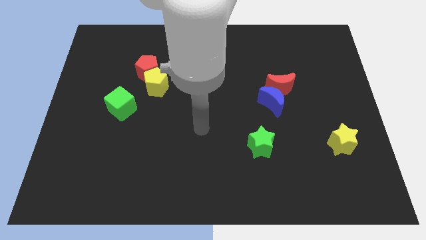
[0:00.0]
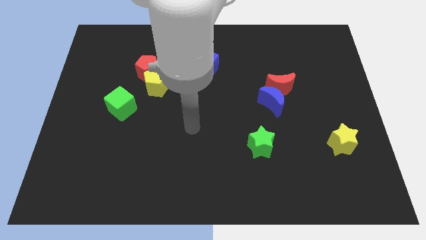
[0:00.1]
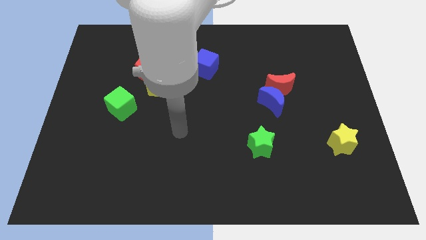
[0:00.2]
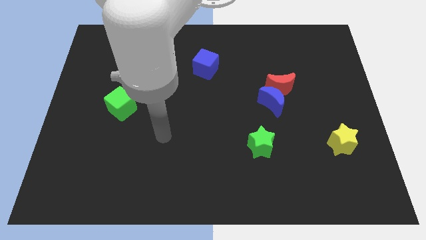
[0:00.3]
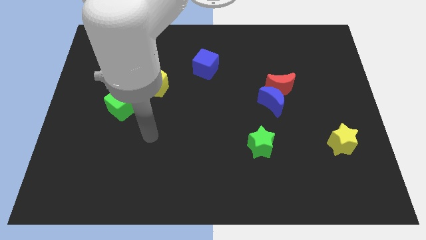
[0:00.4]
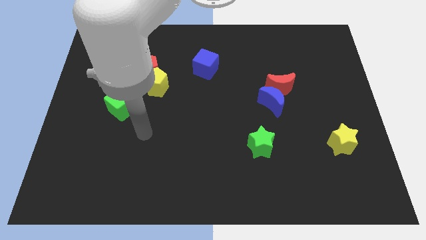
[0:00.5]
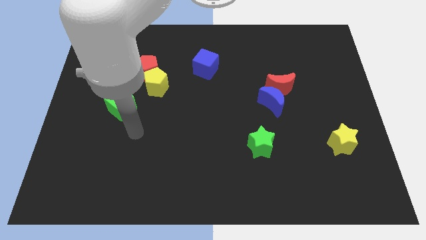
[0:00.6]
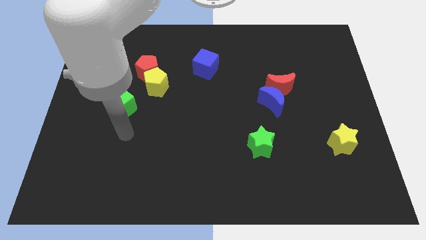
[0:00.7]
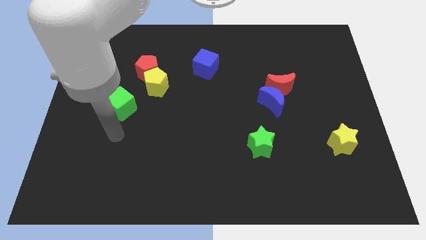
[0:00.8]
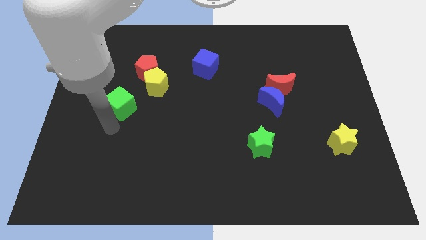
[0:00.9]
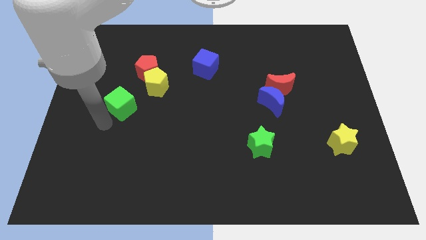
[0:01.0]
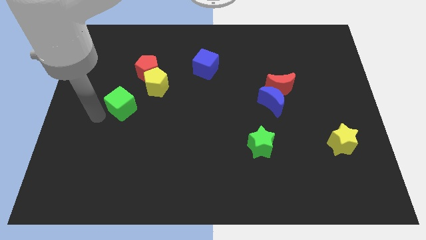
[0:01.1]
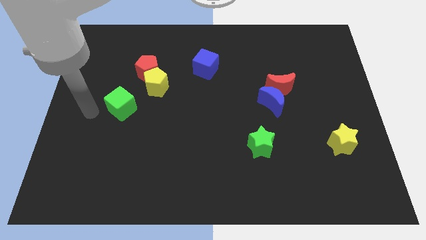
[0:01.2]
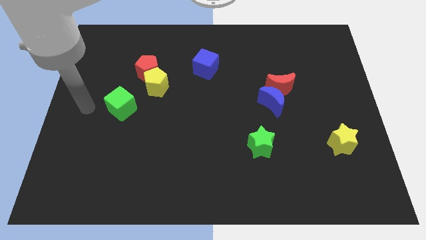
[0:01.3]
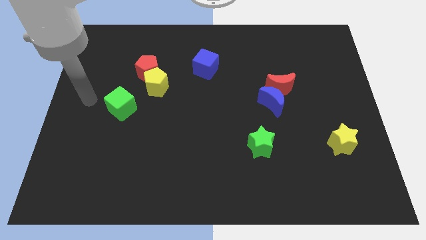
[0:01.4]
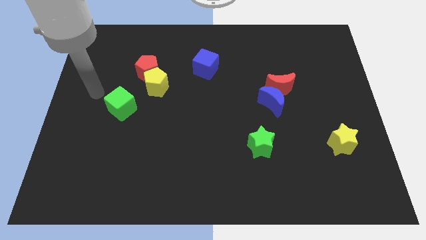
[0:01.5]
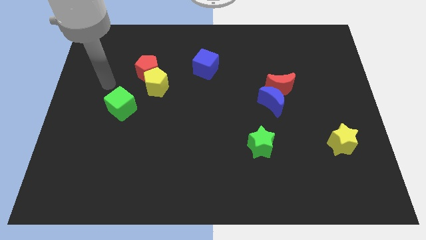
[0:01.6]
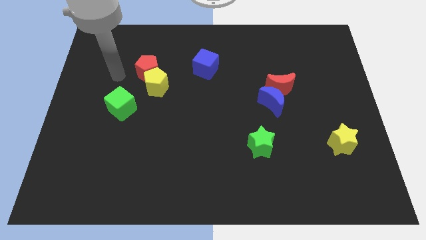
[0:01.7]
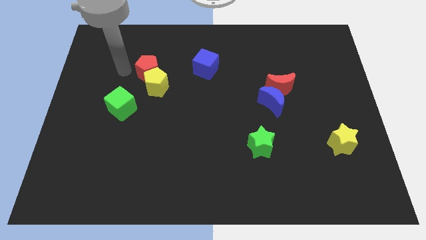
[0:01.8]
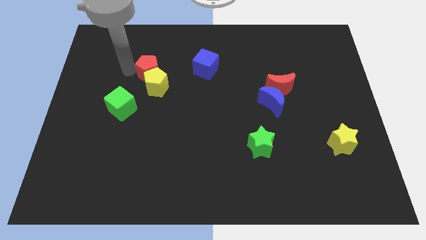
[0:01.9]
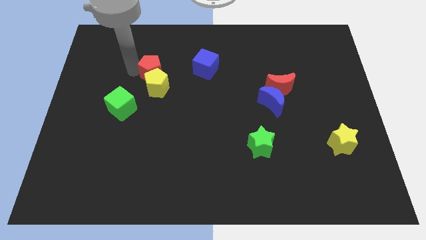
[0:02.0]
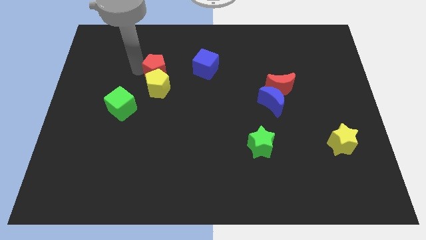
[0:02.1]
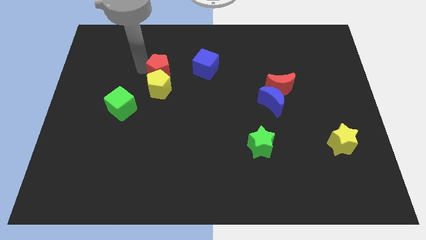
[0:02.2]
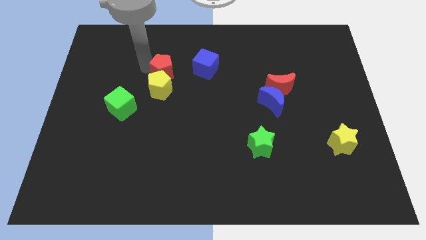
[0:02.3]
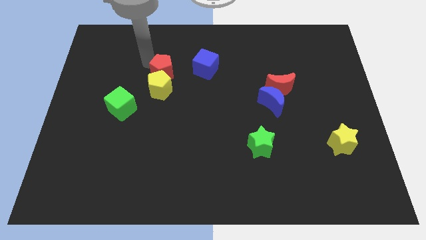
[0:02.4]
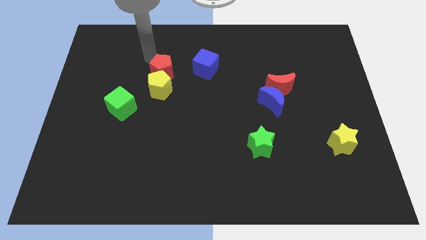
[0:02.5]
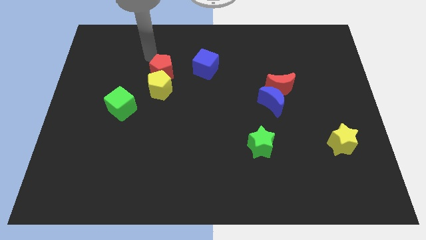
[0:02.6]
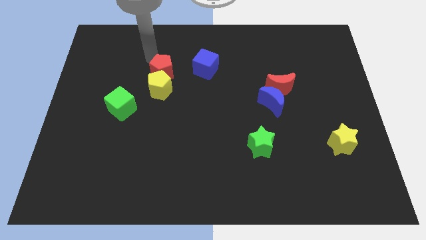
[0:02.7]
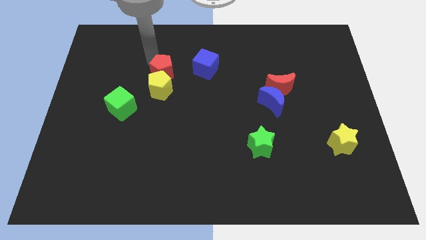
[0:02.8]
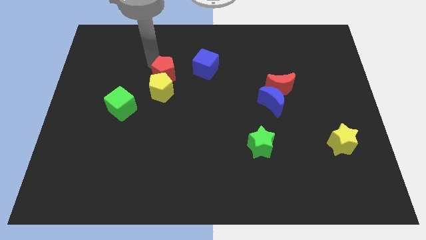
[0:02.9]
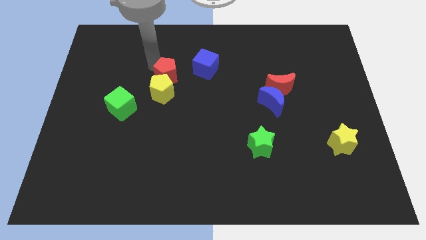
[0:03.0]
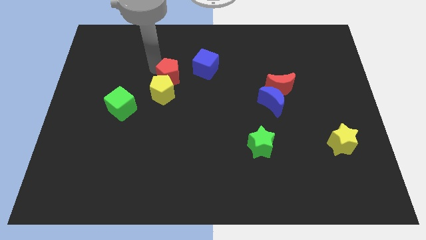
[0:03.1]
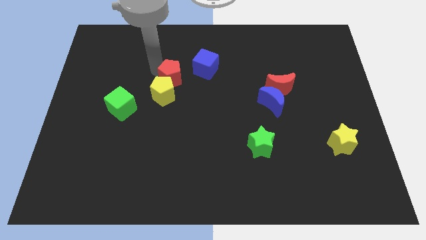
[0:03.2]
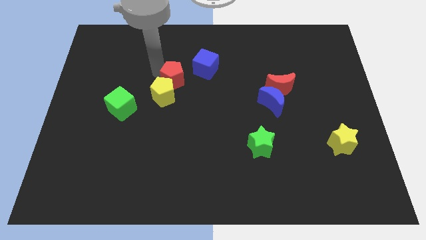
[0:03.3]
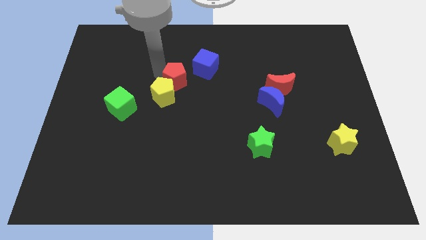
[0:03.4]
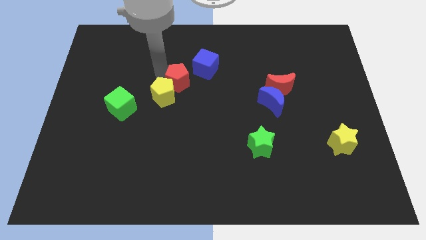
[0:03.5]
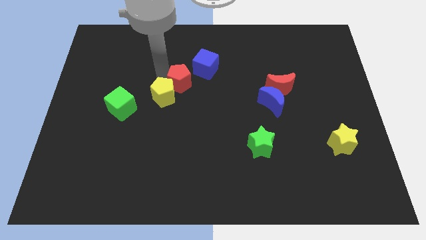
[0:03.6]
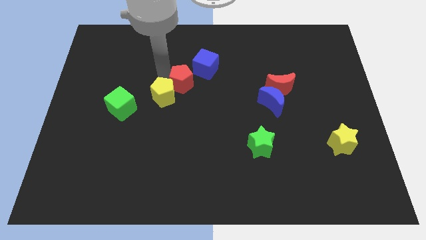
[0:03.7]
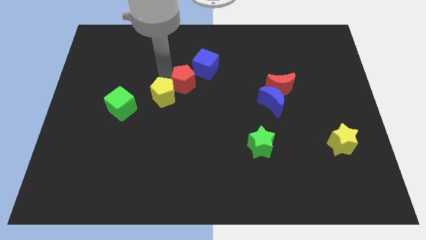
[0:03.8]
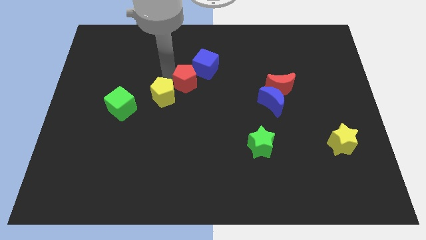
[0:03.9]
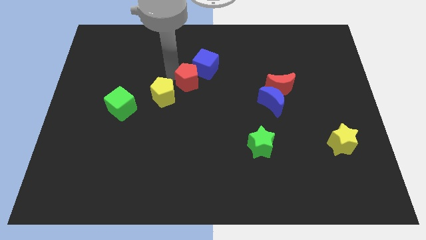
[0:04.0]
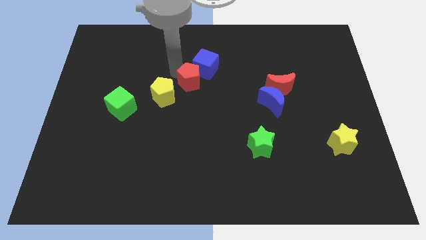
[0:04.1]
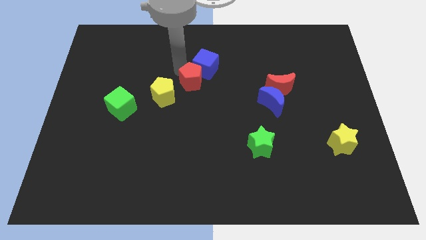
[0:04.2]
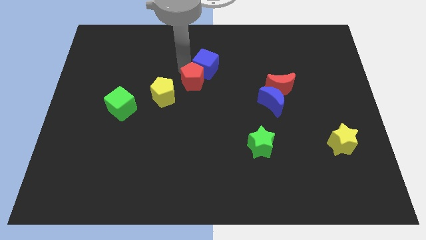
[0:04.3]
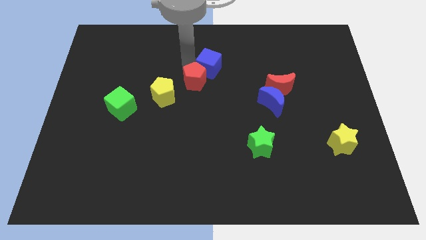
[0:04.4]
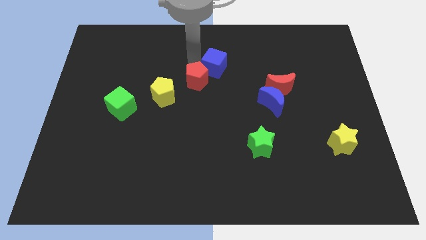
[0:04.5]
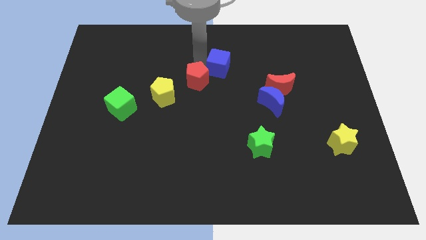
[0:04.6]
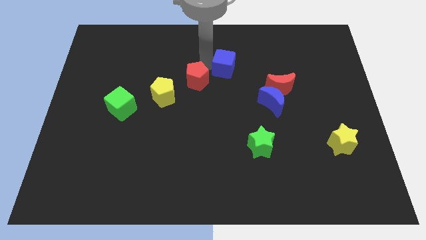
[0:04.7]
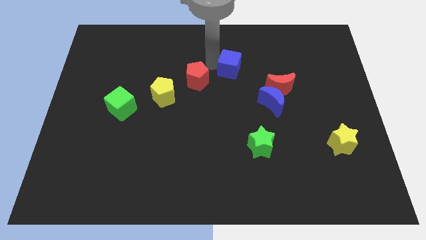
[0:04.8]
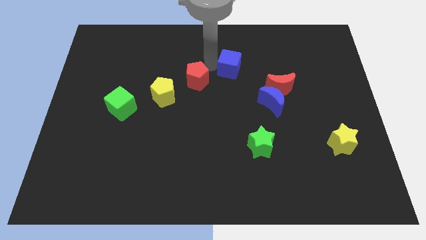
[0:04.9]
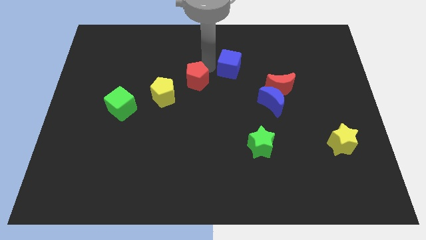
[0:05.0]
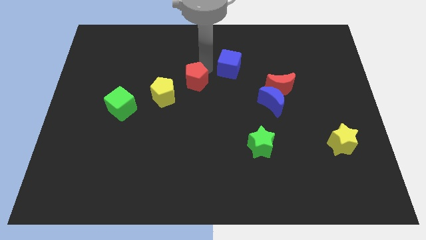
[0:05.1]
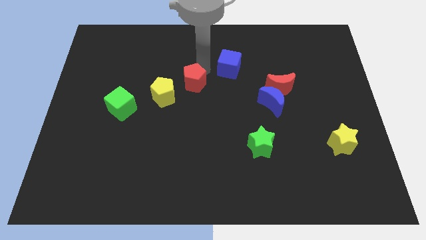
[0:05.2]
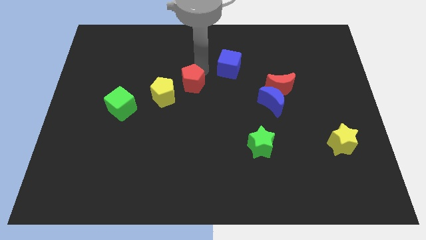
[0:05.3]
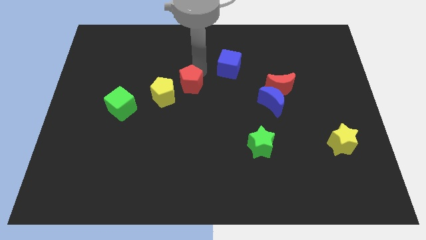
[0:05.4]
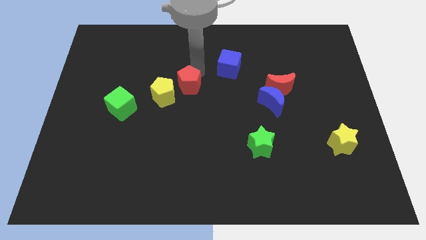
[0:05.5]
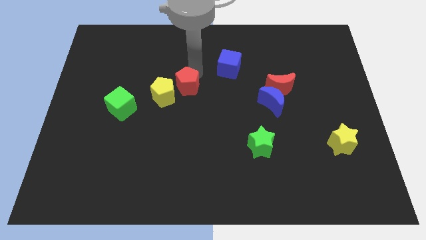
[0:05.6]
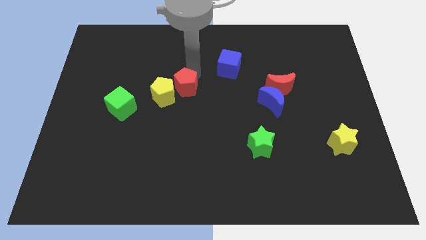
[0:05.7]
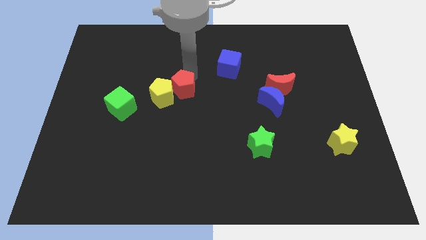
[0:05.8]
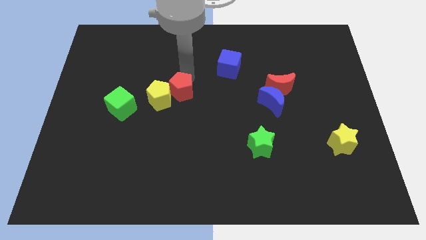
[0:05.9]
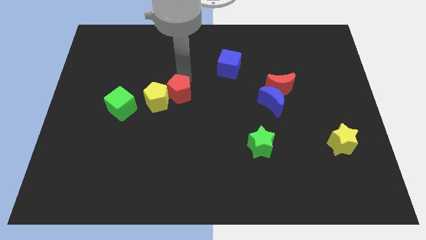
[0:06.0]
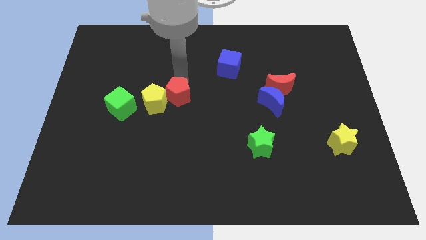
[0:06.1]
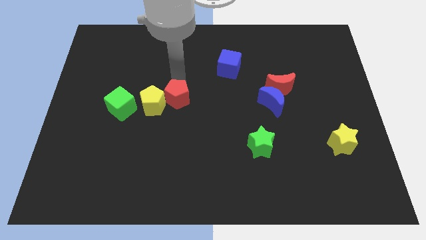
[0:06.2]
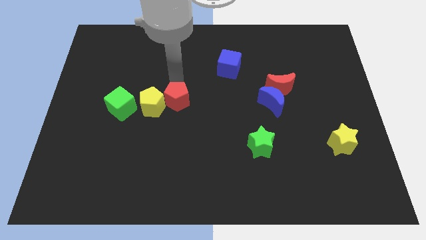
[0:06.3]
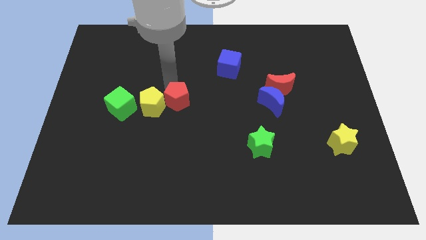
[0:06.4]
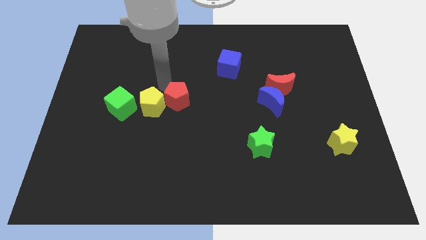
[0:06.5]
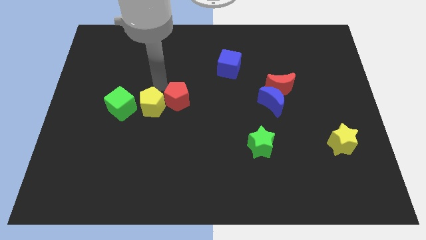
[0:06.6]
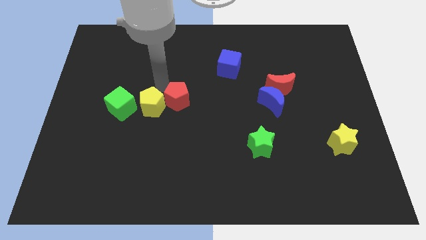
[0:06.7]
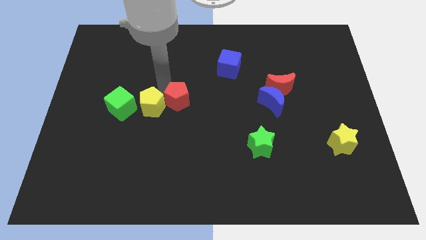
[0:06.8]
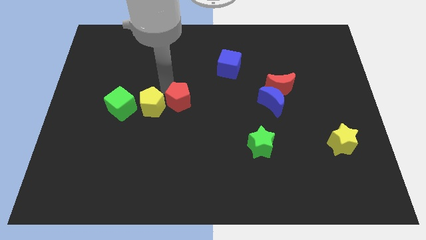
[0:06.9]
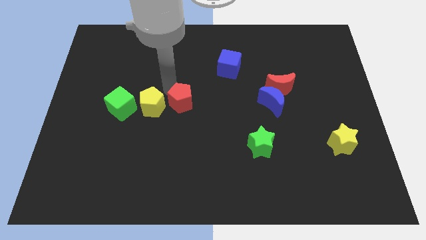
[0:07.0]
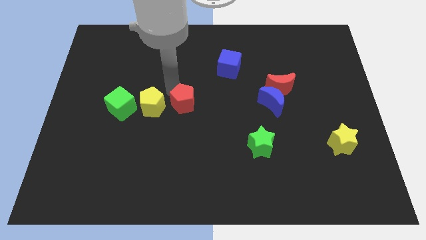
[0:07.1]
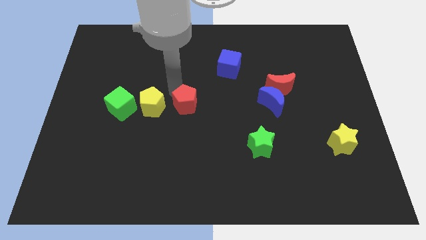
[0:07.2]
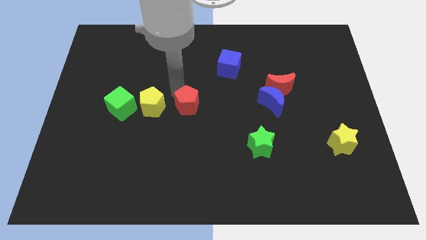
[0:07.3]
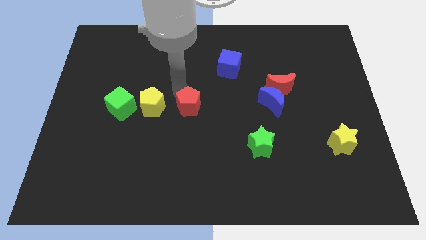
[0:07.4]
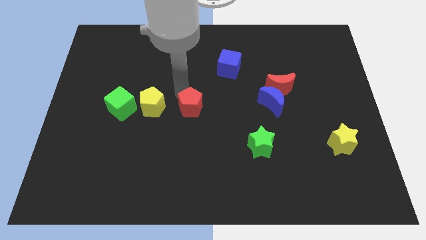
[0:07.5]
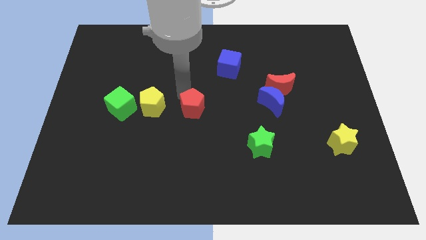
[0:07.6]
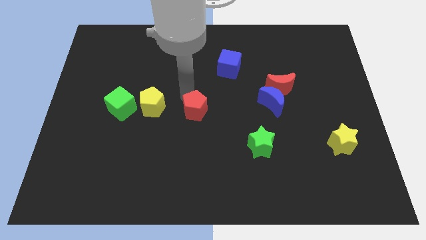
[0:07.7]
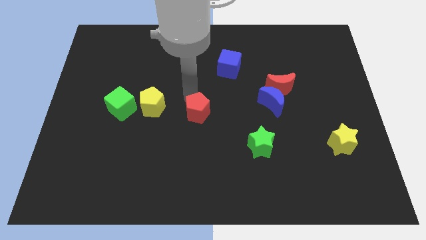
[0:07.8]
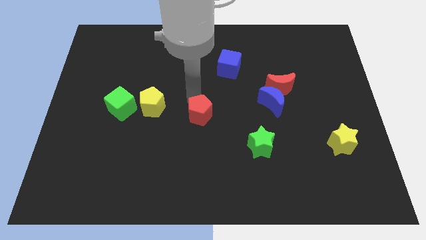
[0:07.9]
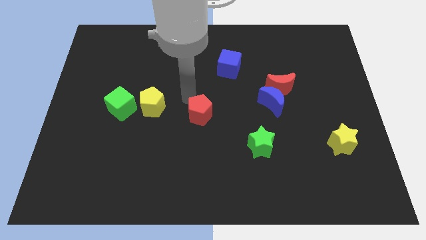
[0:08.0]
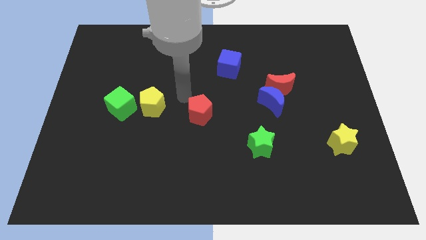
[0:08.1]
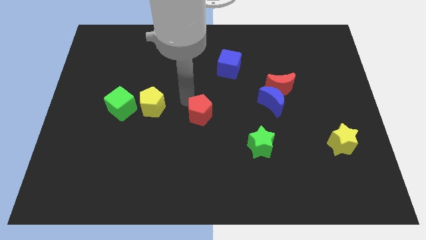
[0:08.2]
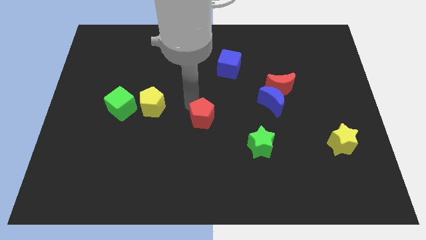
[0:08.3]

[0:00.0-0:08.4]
move the red pentagon down and to the right
